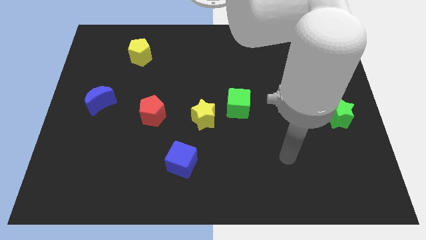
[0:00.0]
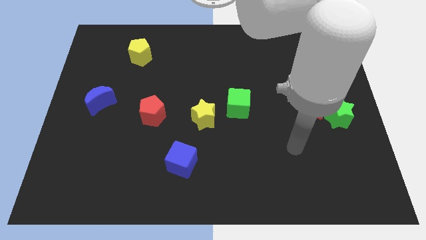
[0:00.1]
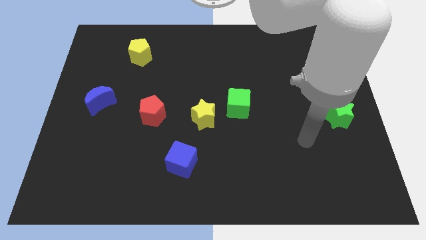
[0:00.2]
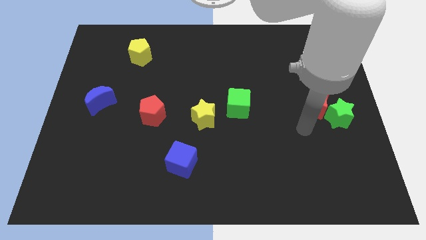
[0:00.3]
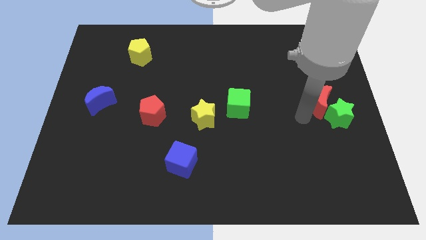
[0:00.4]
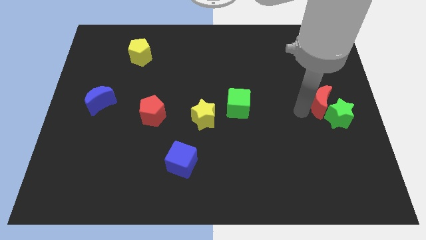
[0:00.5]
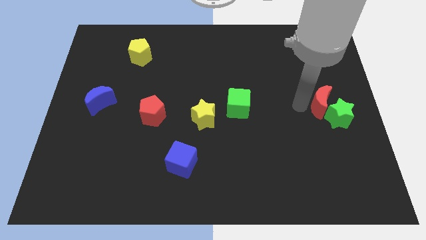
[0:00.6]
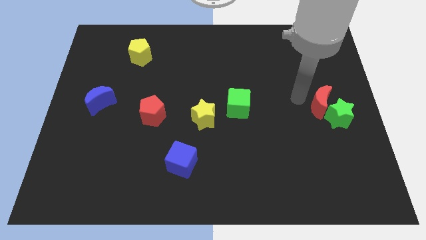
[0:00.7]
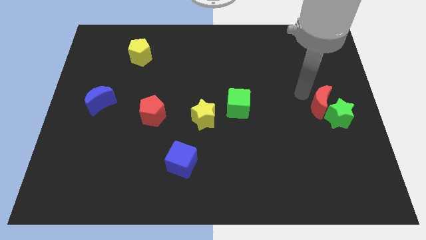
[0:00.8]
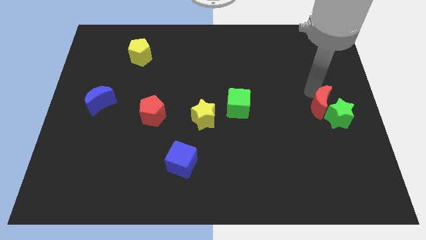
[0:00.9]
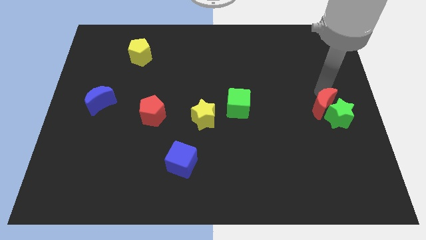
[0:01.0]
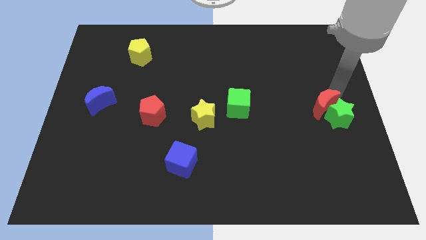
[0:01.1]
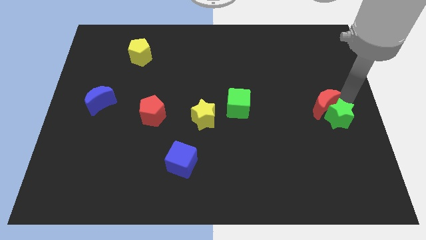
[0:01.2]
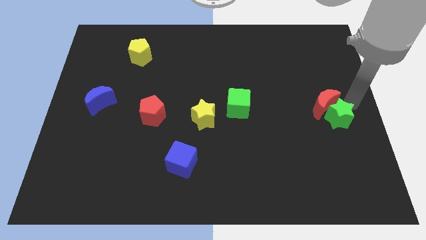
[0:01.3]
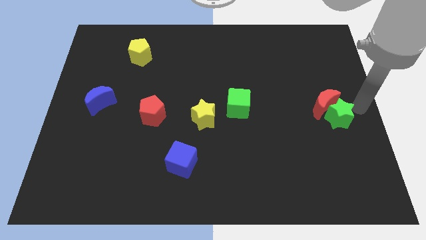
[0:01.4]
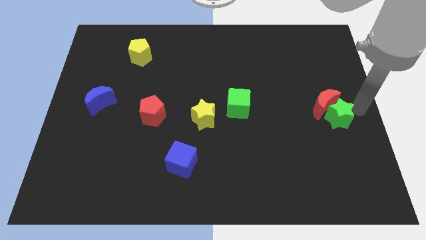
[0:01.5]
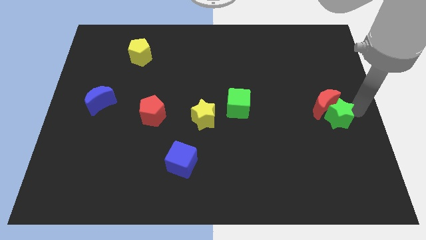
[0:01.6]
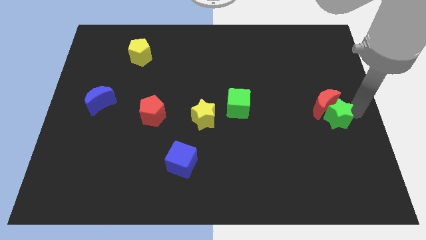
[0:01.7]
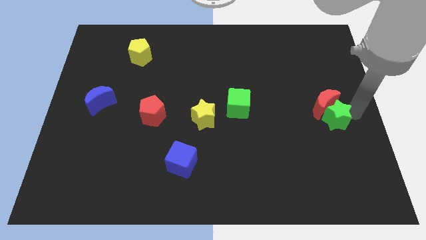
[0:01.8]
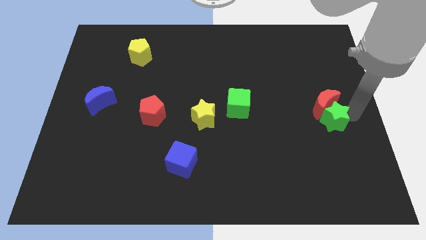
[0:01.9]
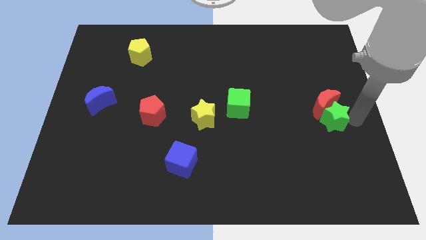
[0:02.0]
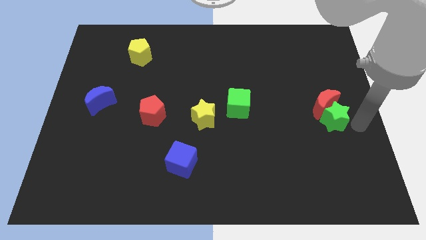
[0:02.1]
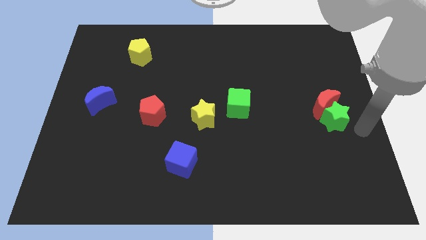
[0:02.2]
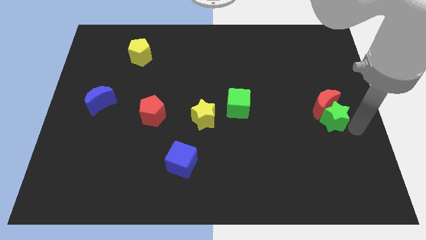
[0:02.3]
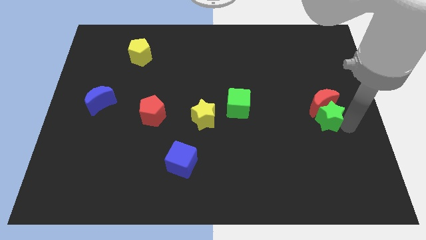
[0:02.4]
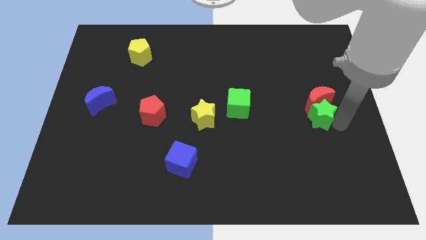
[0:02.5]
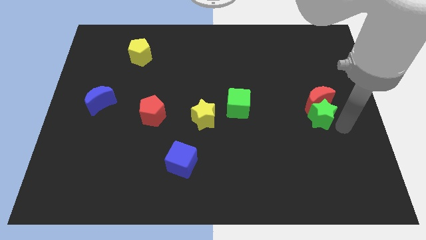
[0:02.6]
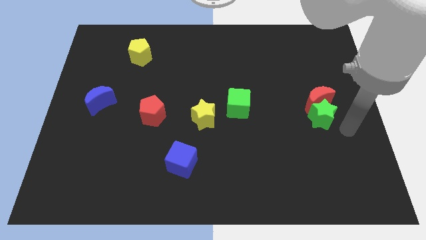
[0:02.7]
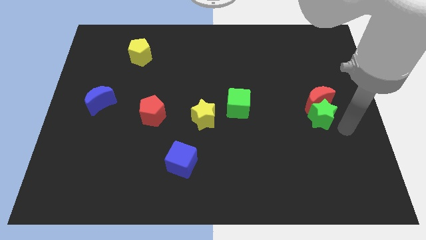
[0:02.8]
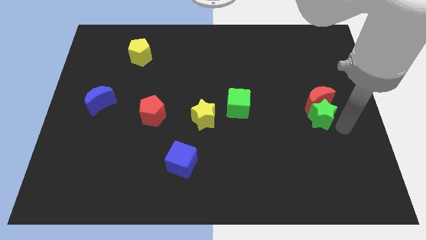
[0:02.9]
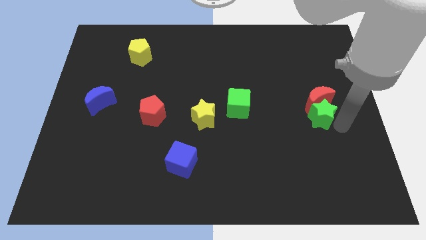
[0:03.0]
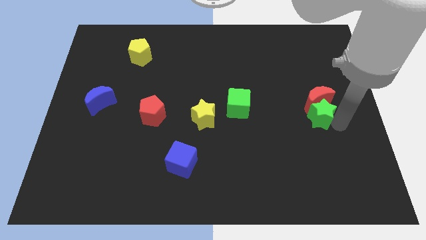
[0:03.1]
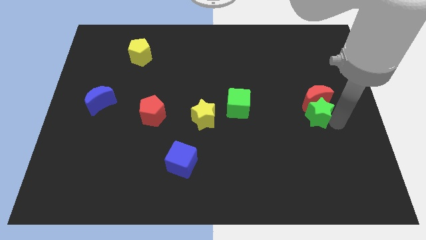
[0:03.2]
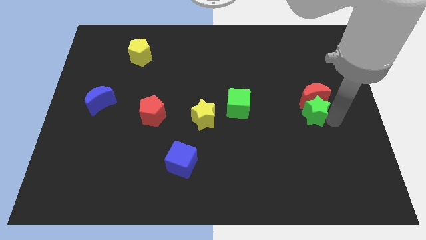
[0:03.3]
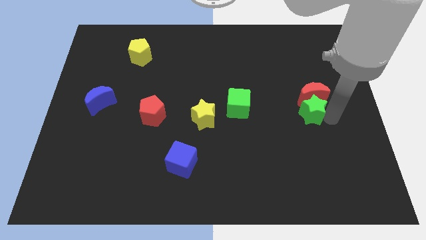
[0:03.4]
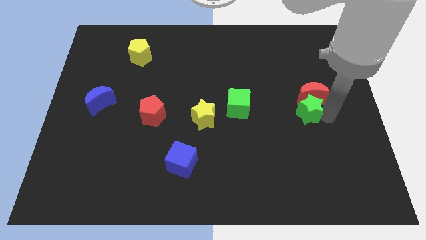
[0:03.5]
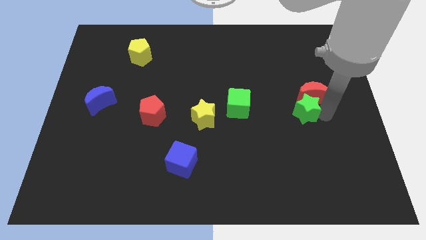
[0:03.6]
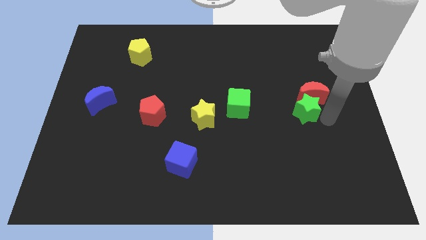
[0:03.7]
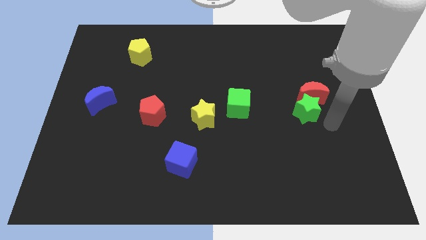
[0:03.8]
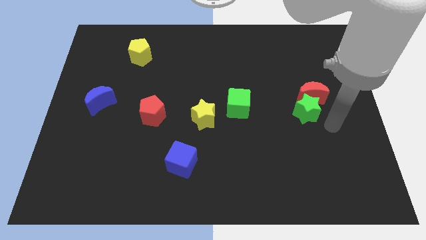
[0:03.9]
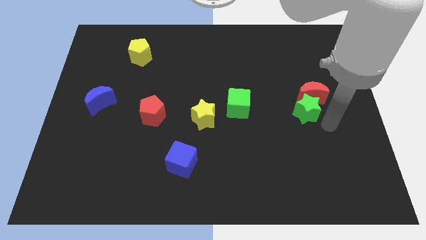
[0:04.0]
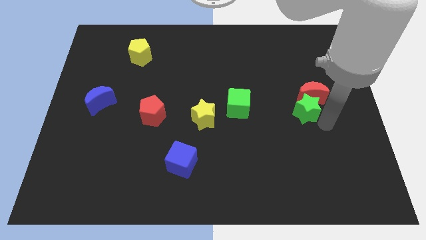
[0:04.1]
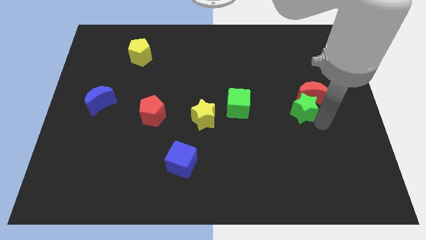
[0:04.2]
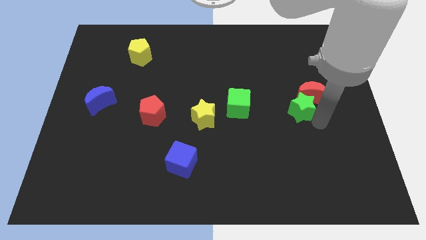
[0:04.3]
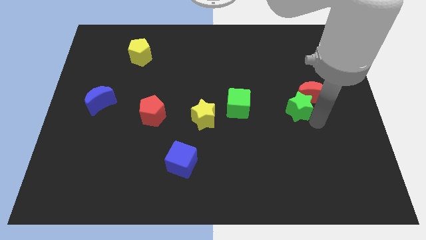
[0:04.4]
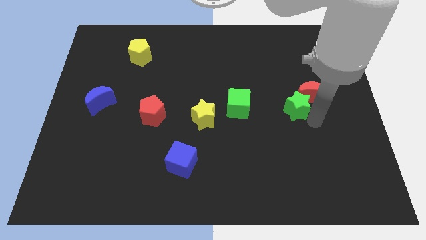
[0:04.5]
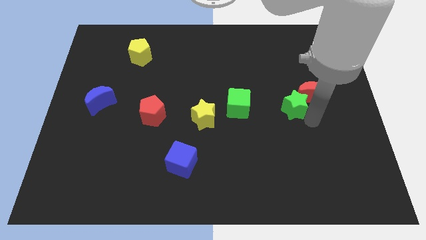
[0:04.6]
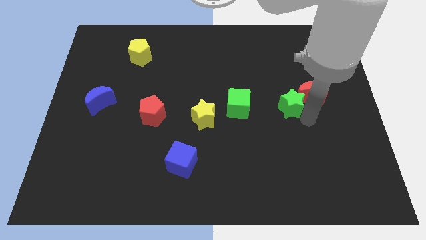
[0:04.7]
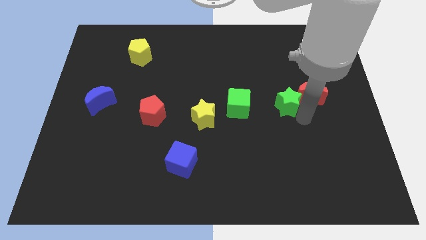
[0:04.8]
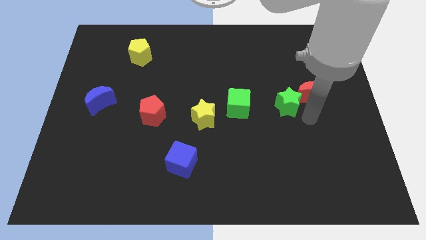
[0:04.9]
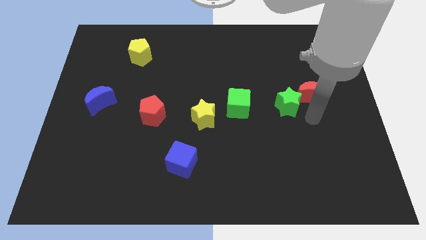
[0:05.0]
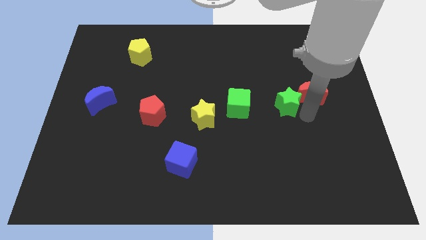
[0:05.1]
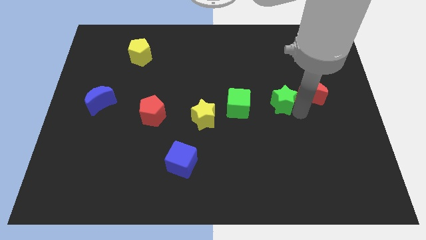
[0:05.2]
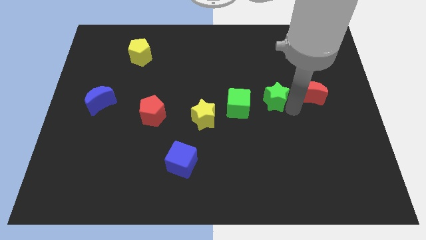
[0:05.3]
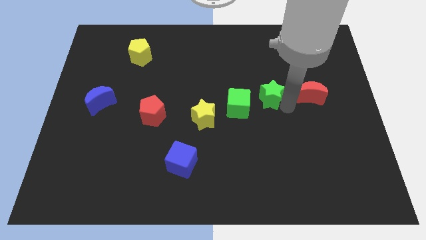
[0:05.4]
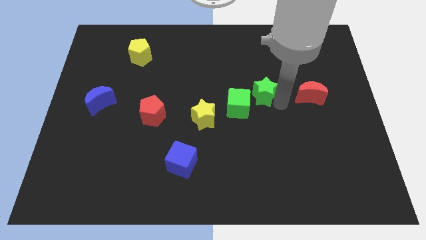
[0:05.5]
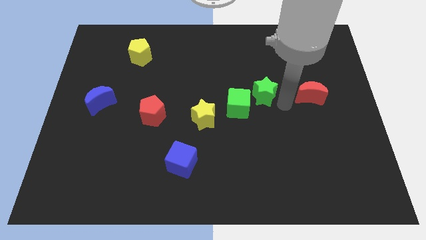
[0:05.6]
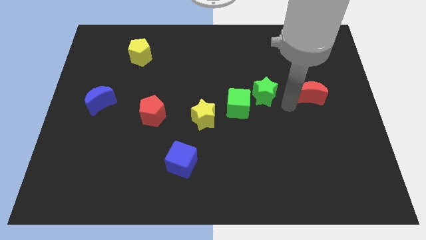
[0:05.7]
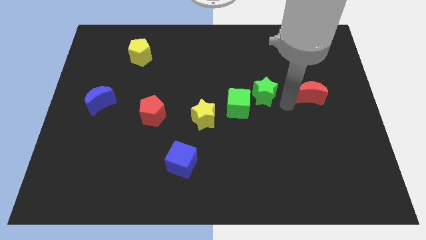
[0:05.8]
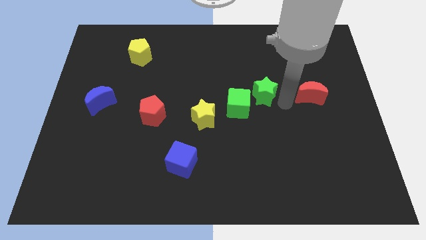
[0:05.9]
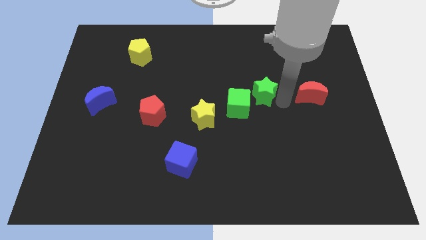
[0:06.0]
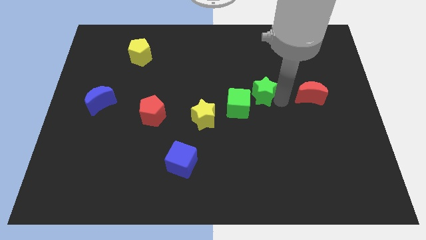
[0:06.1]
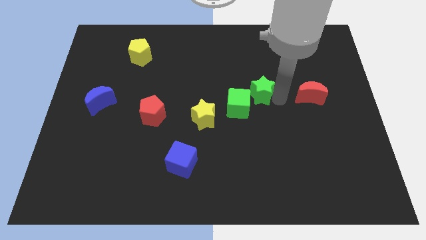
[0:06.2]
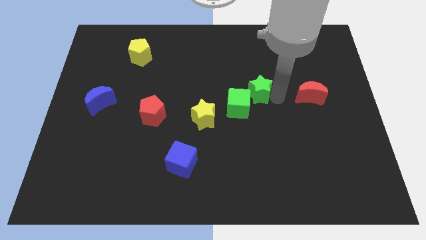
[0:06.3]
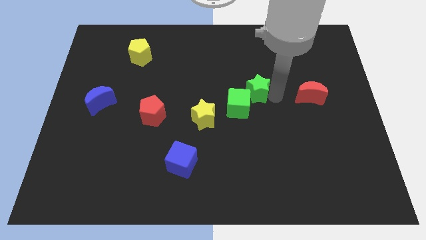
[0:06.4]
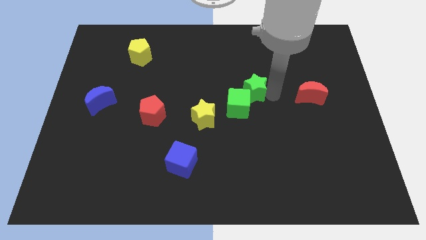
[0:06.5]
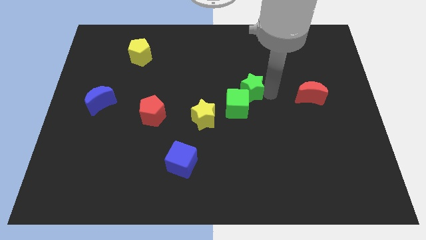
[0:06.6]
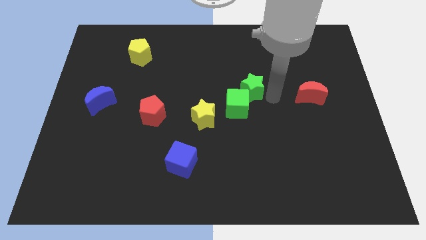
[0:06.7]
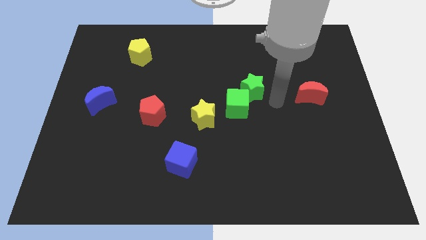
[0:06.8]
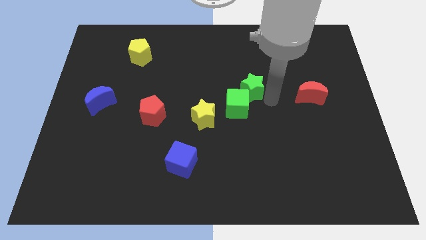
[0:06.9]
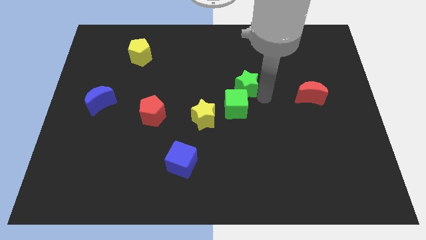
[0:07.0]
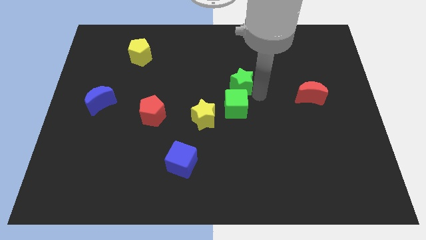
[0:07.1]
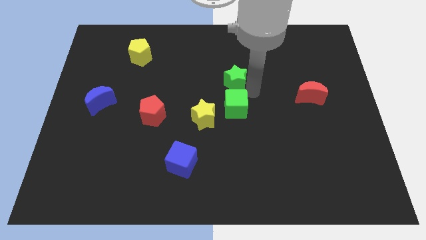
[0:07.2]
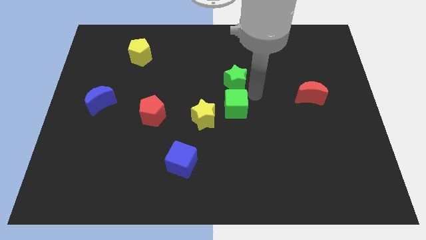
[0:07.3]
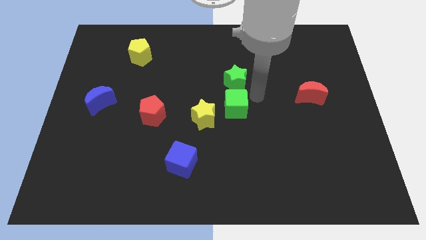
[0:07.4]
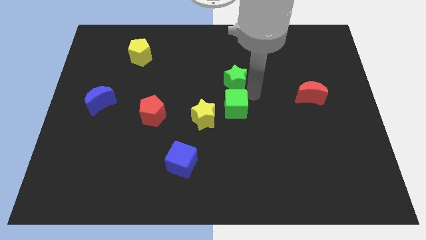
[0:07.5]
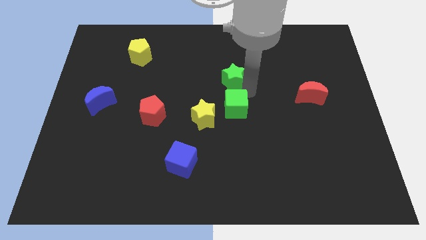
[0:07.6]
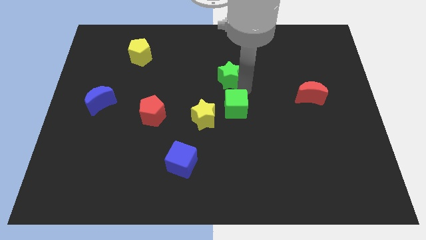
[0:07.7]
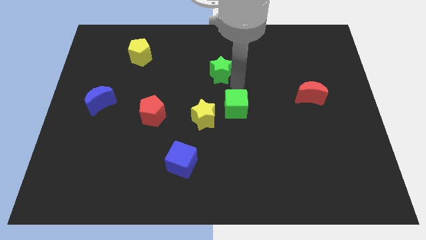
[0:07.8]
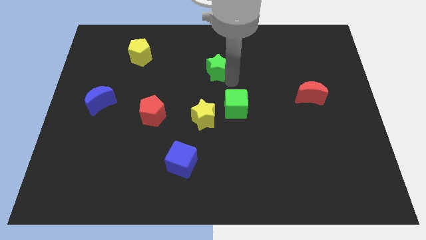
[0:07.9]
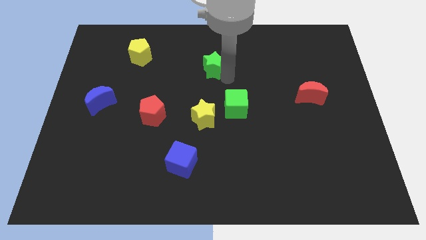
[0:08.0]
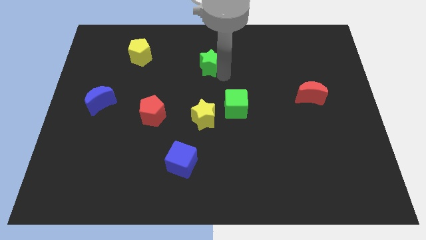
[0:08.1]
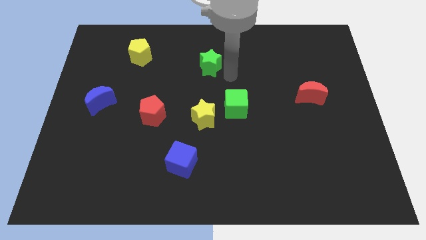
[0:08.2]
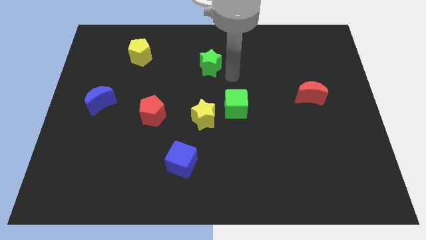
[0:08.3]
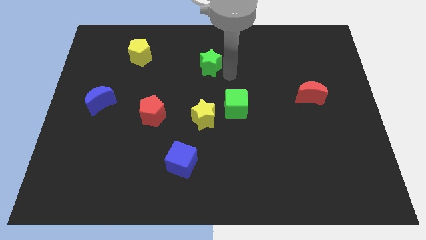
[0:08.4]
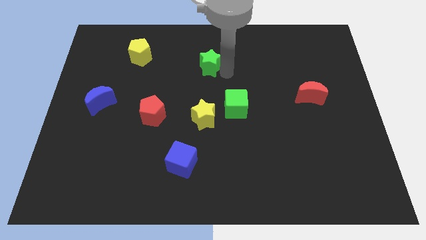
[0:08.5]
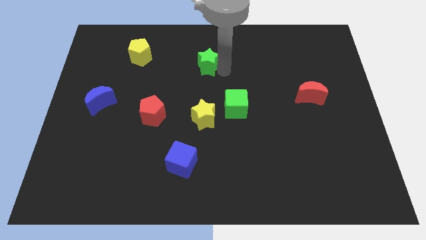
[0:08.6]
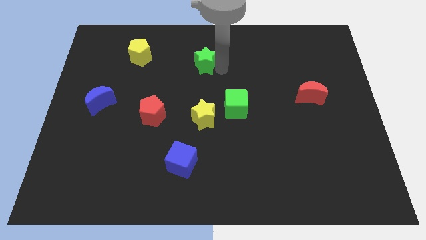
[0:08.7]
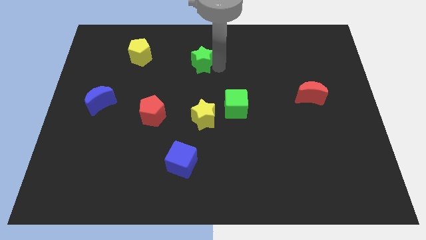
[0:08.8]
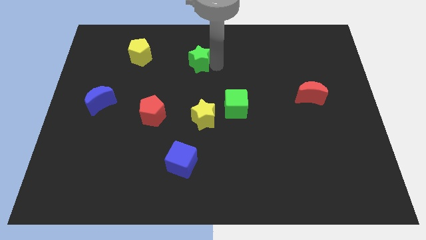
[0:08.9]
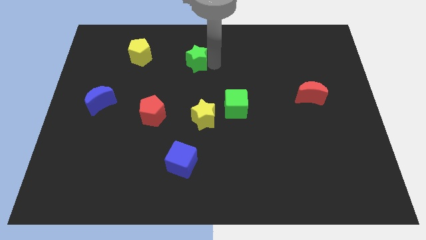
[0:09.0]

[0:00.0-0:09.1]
push the green star to the right of the yellow pentagon
